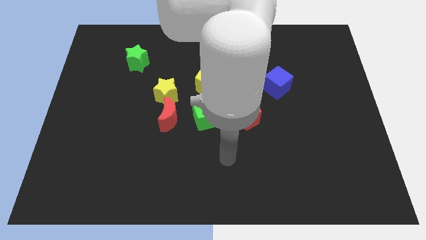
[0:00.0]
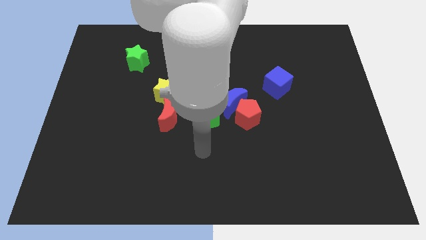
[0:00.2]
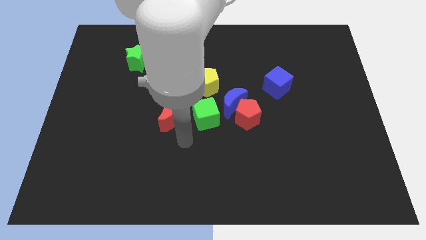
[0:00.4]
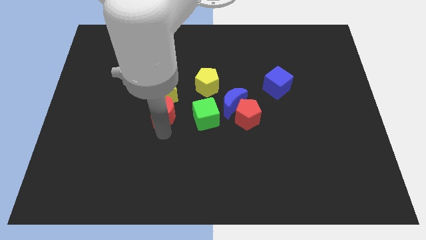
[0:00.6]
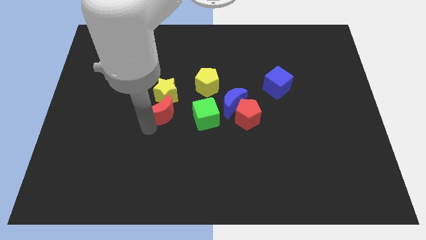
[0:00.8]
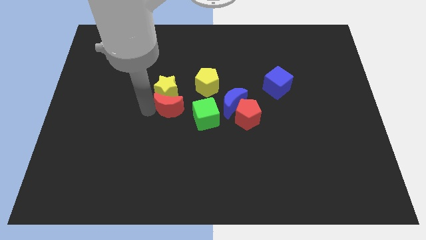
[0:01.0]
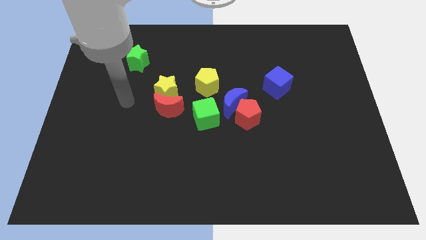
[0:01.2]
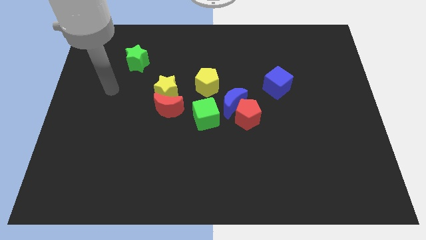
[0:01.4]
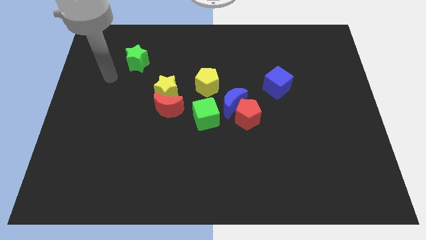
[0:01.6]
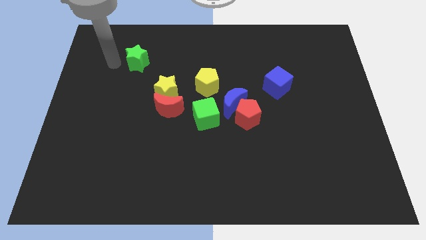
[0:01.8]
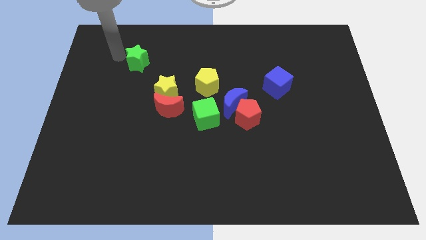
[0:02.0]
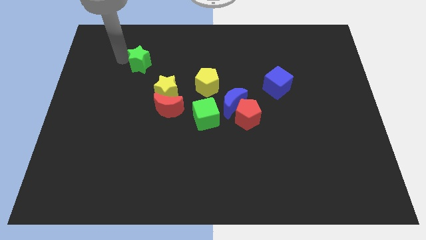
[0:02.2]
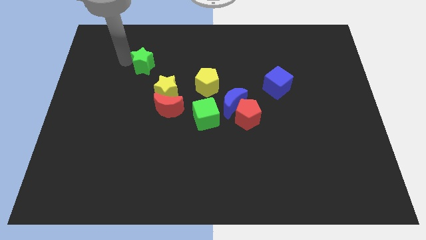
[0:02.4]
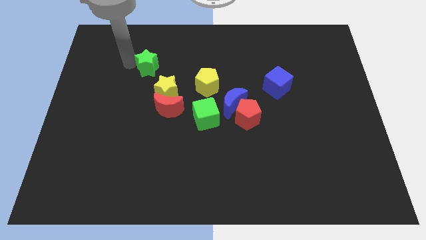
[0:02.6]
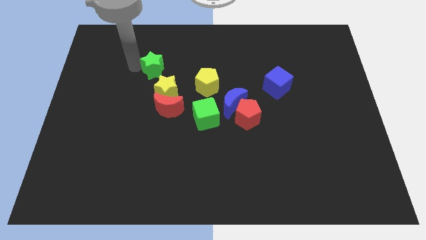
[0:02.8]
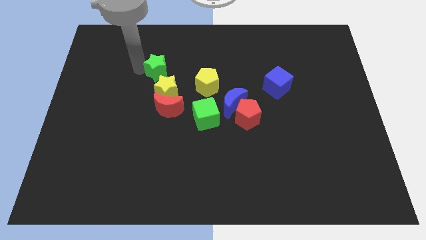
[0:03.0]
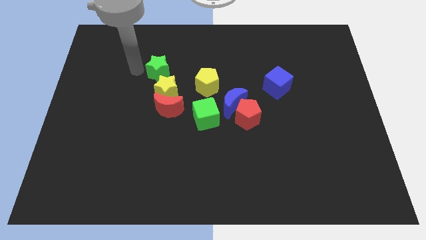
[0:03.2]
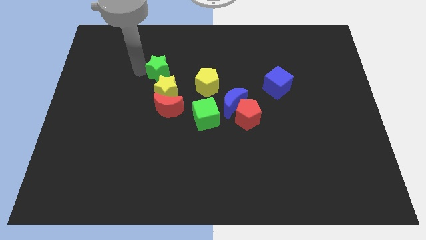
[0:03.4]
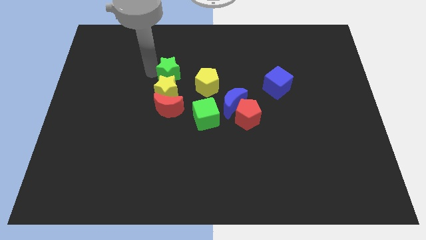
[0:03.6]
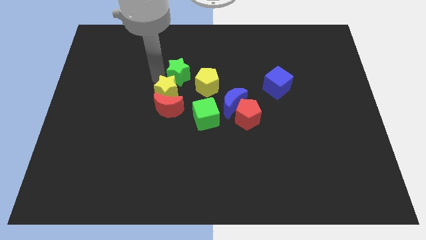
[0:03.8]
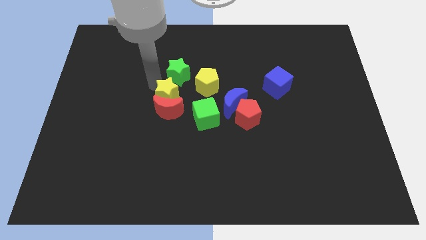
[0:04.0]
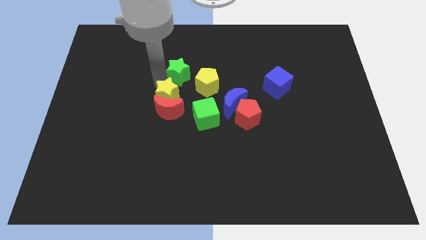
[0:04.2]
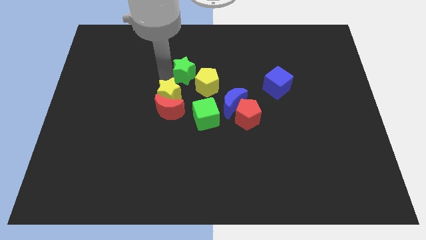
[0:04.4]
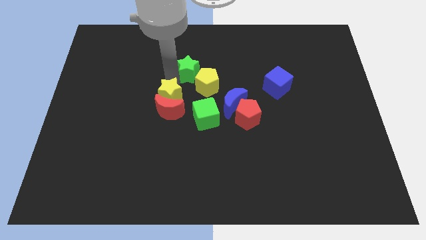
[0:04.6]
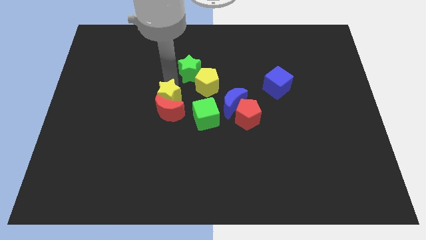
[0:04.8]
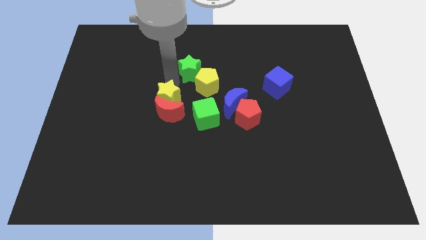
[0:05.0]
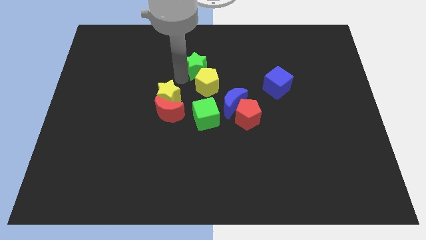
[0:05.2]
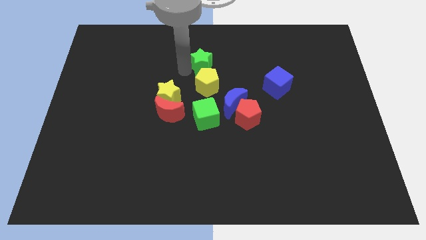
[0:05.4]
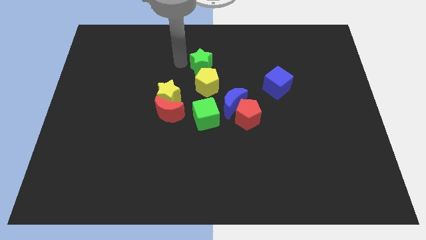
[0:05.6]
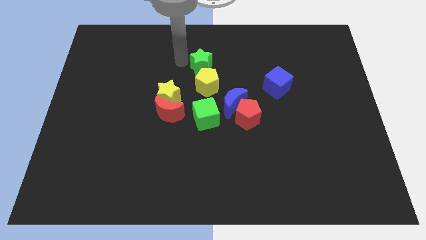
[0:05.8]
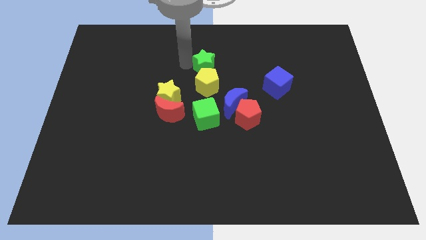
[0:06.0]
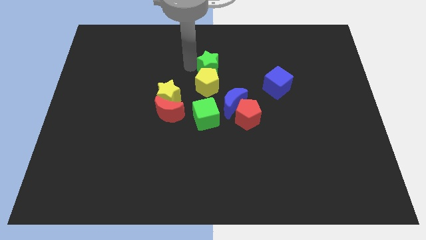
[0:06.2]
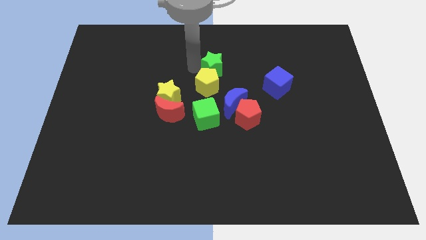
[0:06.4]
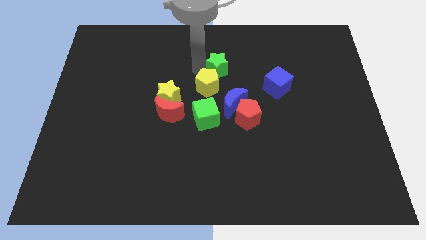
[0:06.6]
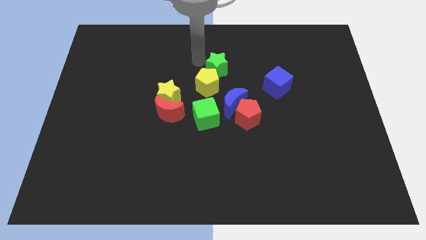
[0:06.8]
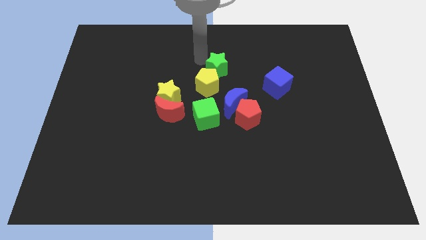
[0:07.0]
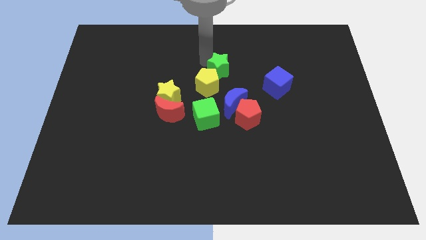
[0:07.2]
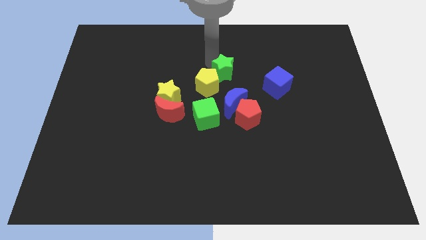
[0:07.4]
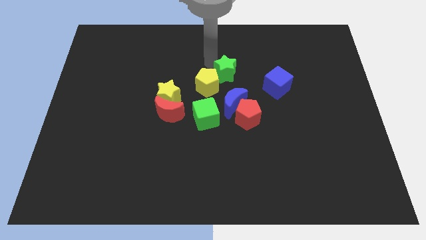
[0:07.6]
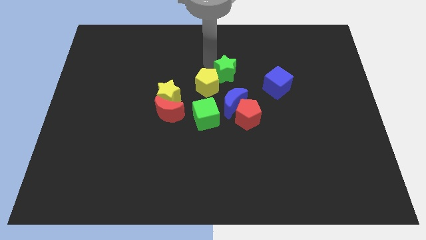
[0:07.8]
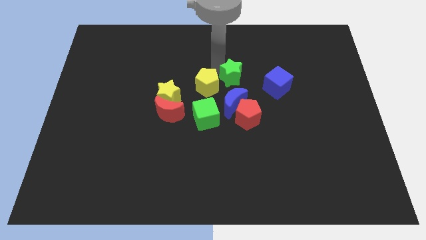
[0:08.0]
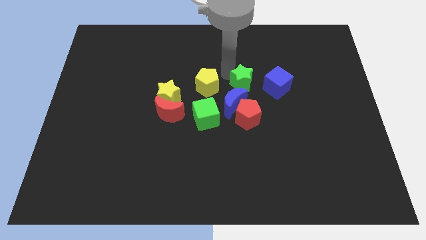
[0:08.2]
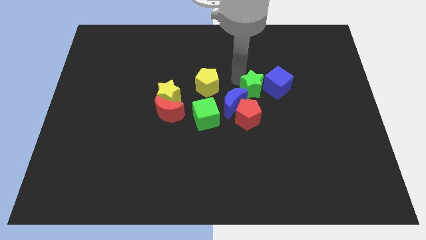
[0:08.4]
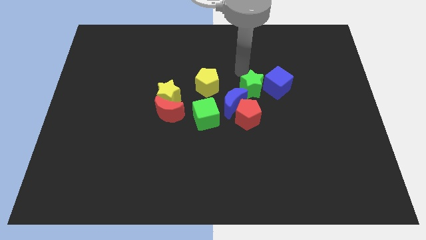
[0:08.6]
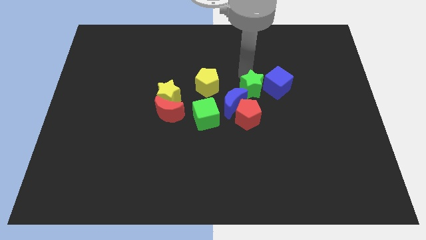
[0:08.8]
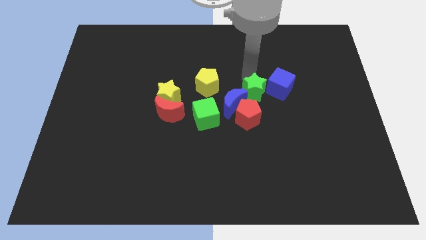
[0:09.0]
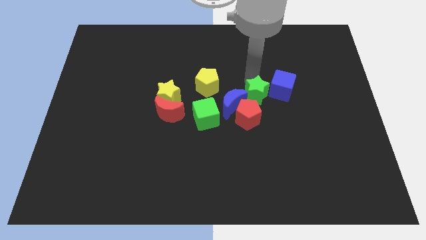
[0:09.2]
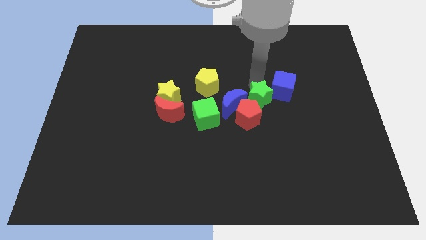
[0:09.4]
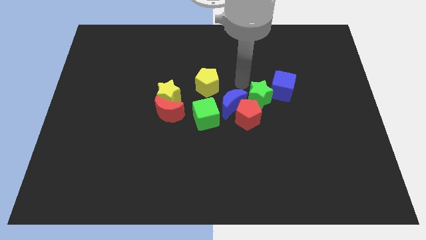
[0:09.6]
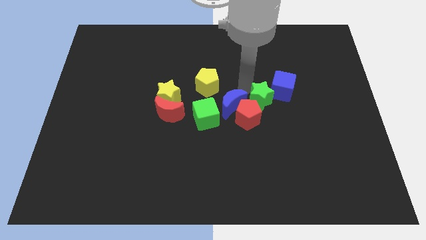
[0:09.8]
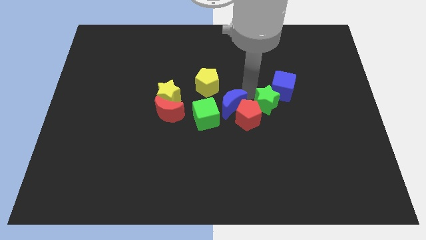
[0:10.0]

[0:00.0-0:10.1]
push the green star to the bottom of the blue cube

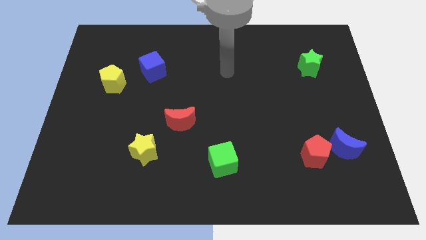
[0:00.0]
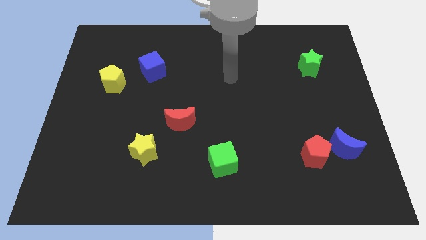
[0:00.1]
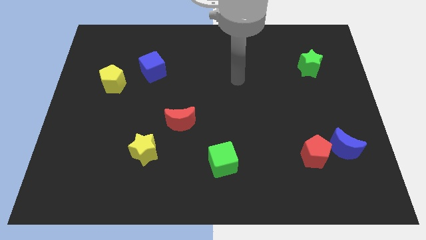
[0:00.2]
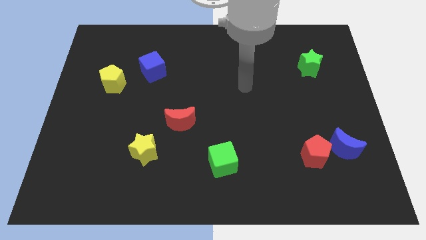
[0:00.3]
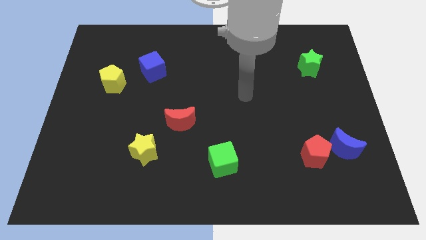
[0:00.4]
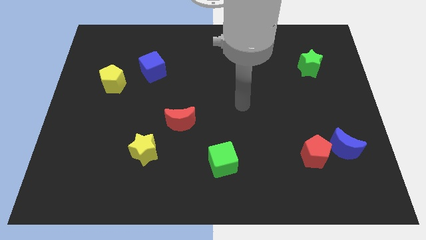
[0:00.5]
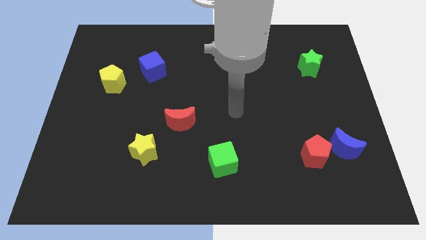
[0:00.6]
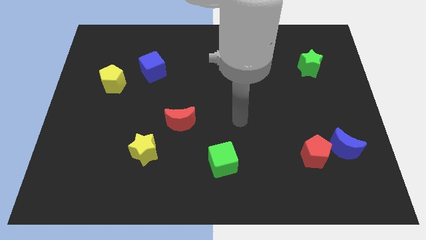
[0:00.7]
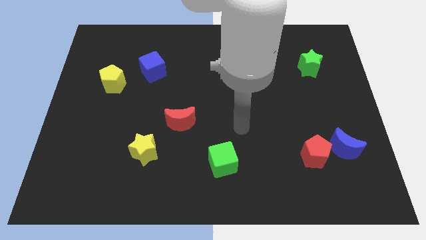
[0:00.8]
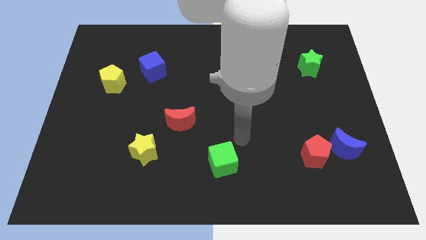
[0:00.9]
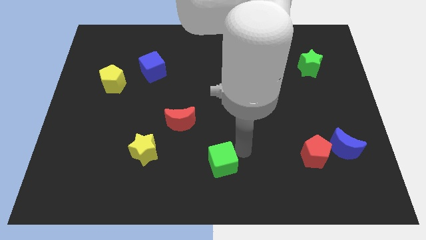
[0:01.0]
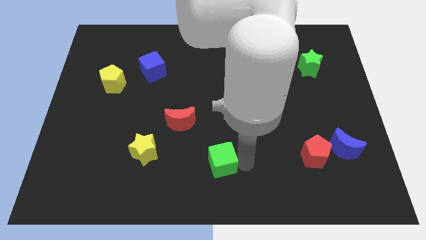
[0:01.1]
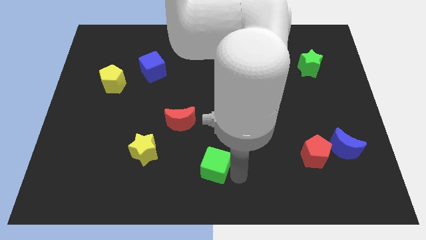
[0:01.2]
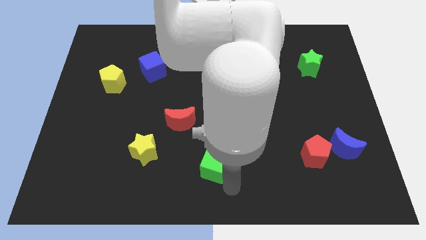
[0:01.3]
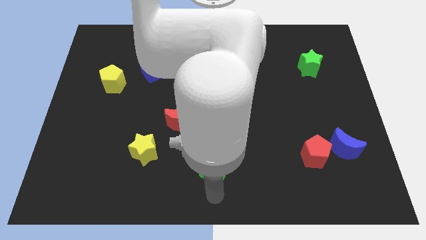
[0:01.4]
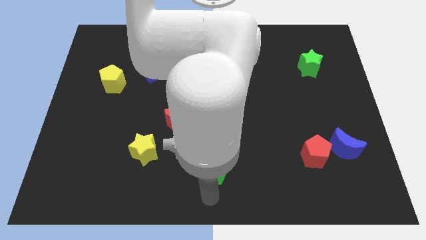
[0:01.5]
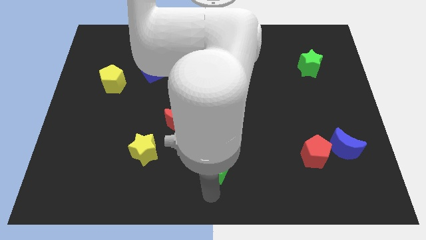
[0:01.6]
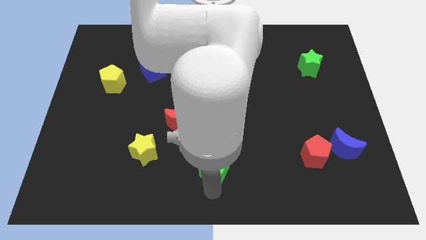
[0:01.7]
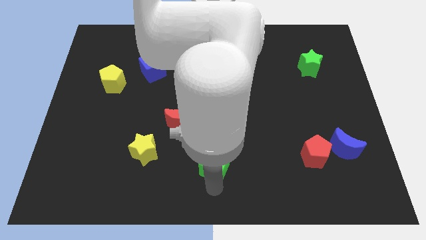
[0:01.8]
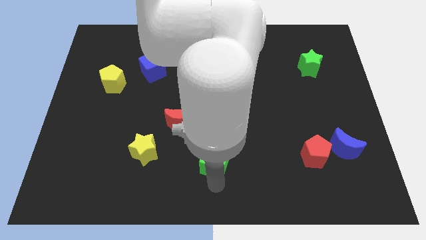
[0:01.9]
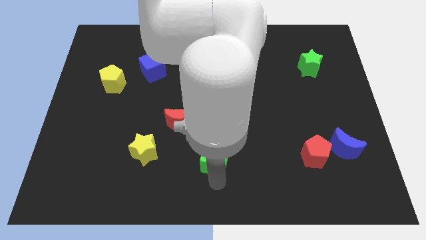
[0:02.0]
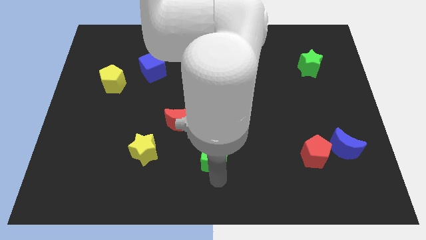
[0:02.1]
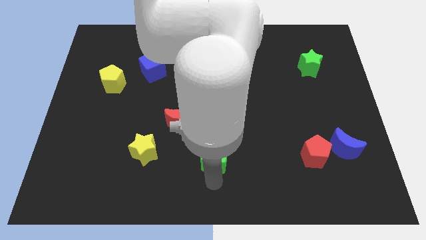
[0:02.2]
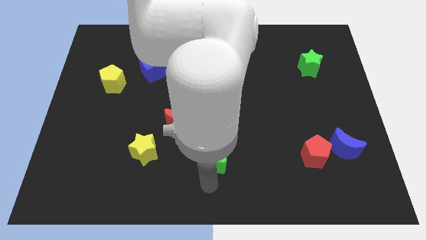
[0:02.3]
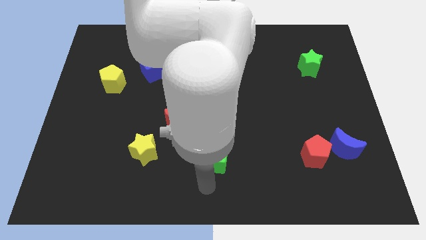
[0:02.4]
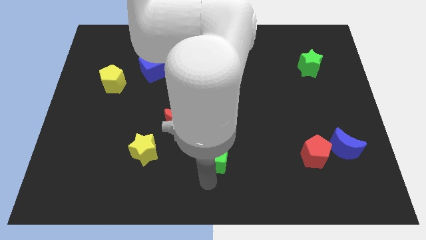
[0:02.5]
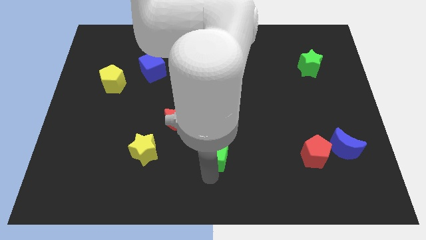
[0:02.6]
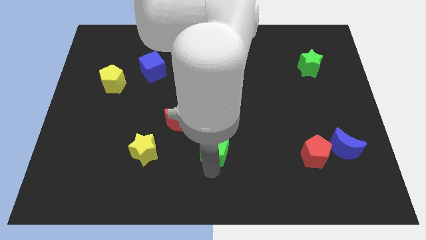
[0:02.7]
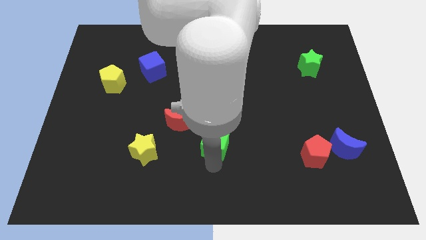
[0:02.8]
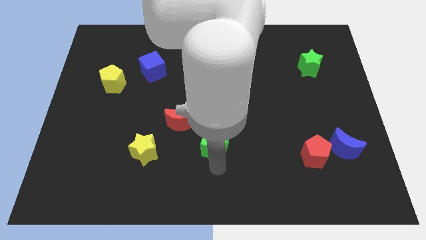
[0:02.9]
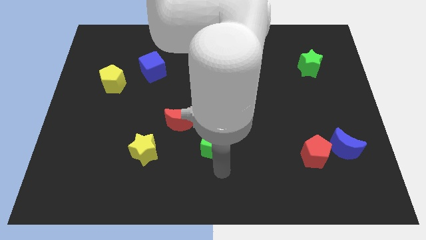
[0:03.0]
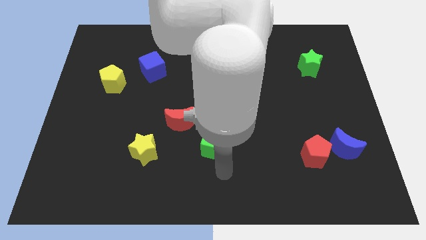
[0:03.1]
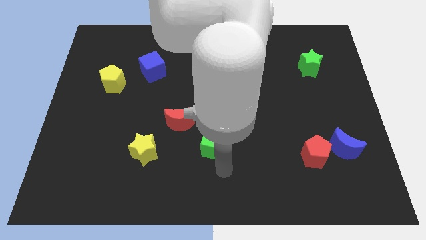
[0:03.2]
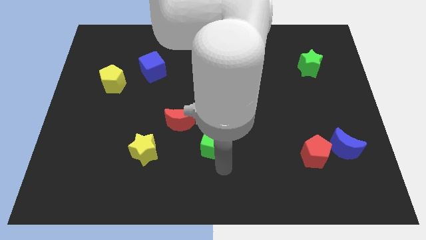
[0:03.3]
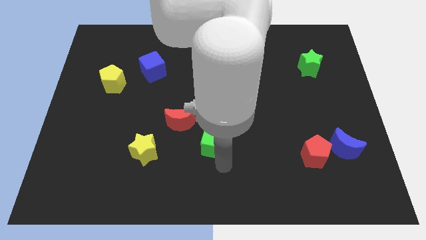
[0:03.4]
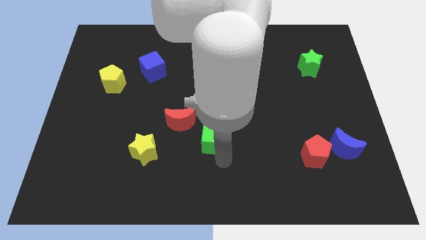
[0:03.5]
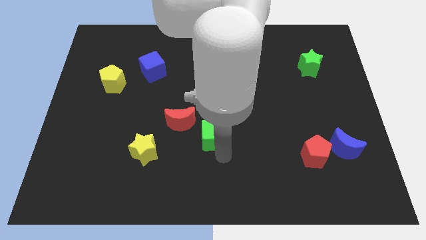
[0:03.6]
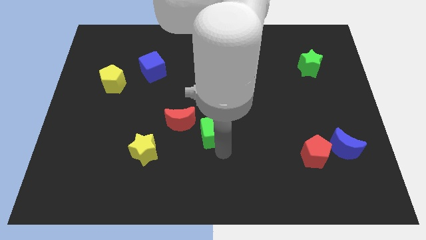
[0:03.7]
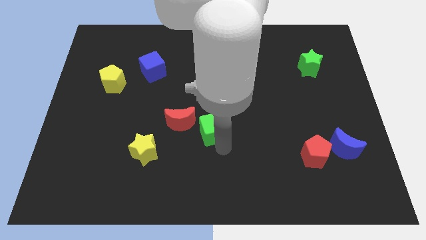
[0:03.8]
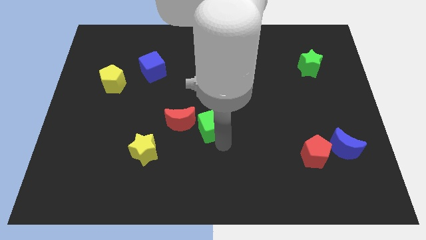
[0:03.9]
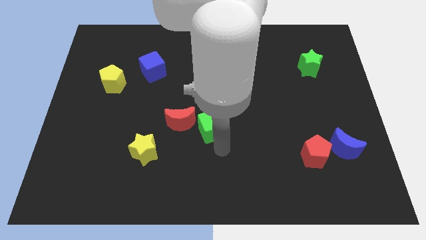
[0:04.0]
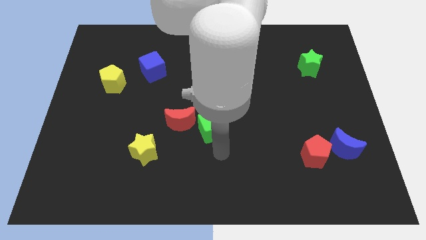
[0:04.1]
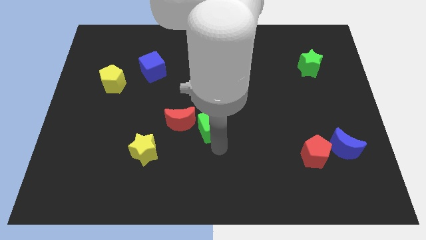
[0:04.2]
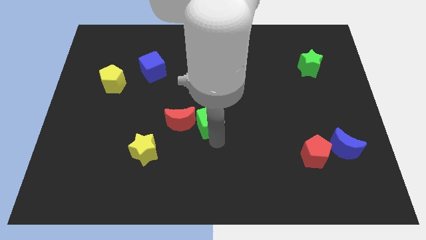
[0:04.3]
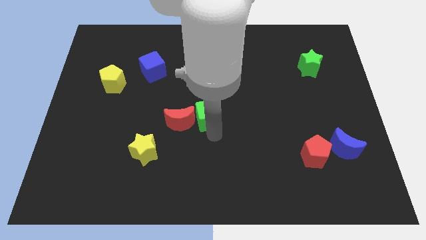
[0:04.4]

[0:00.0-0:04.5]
push the green cube to the top right of the red moon
